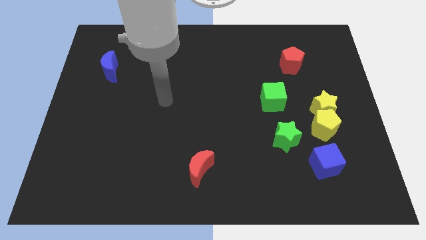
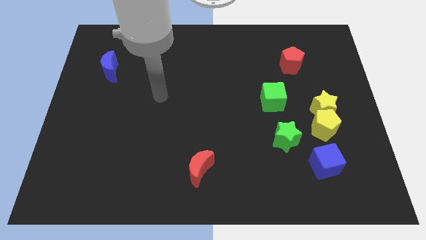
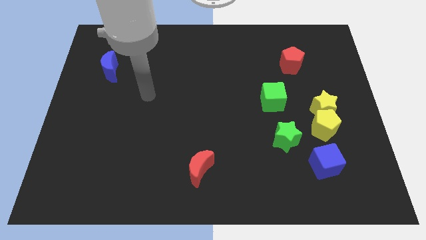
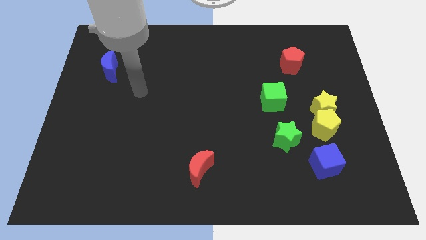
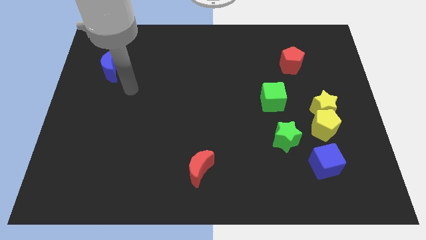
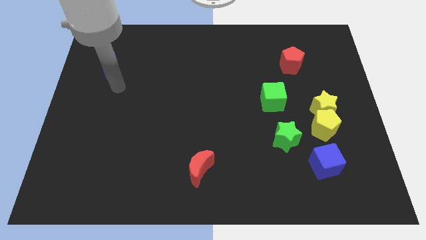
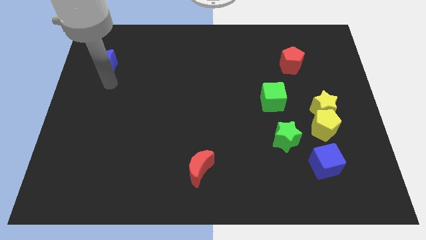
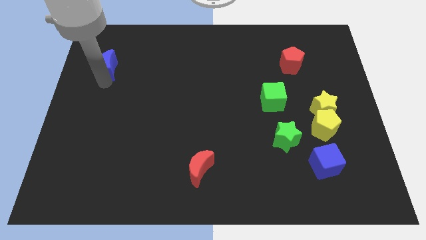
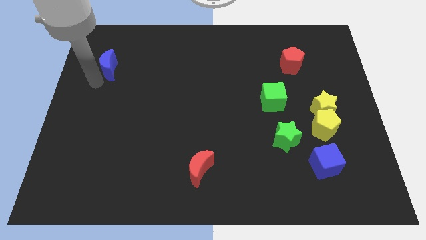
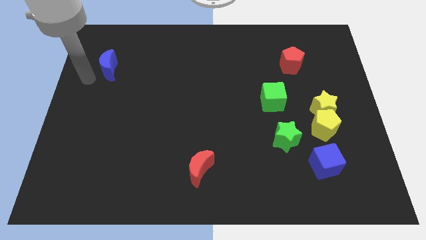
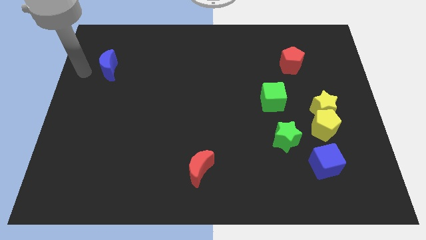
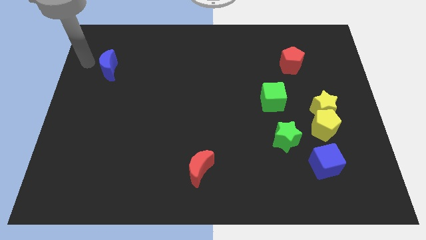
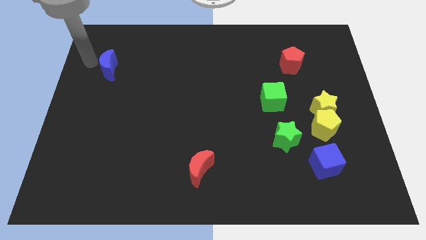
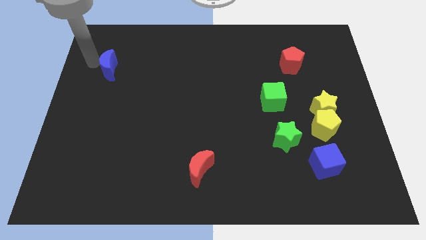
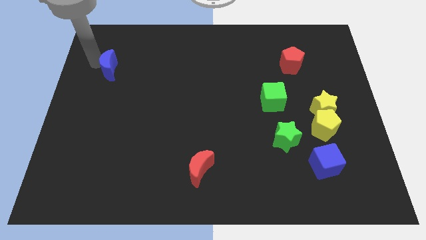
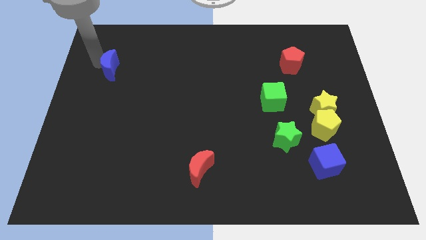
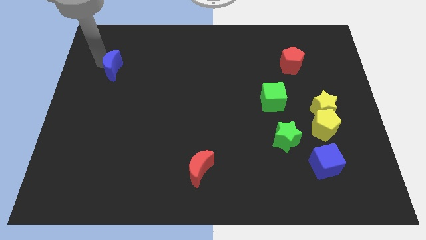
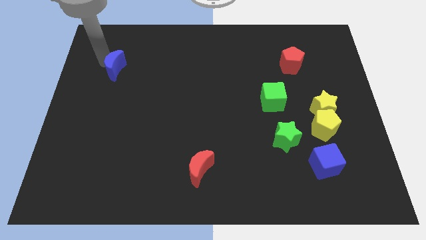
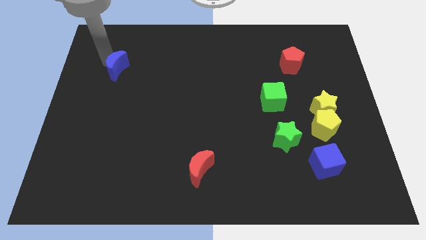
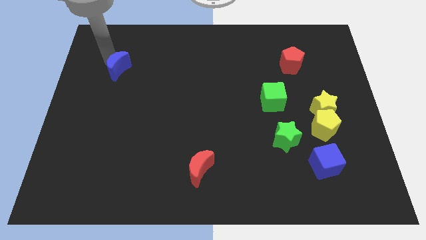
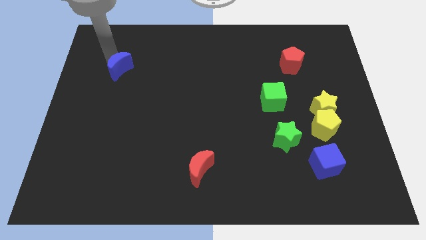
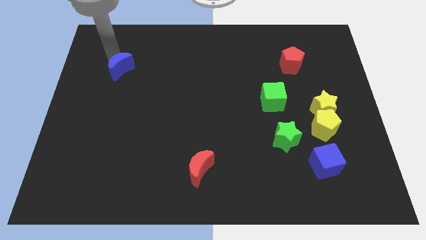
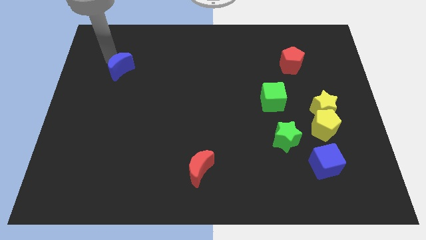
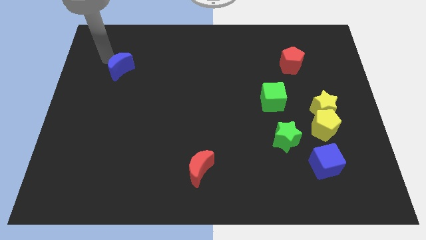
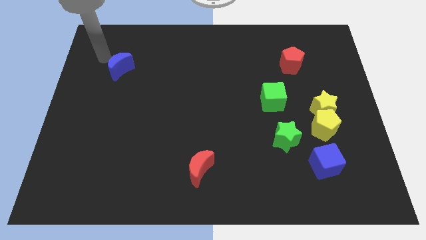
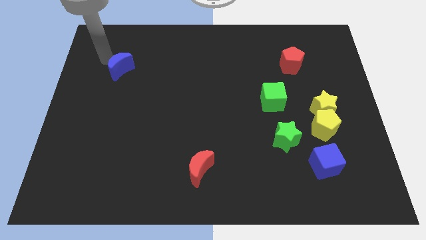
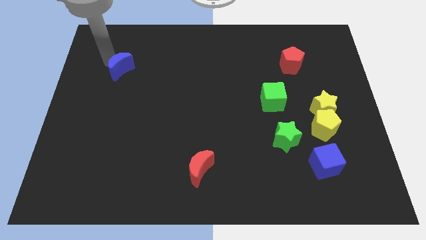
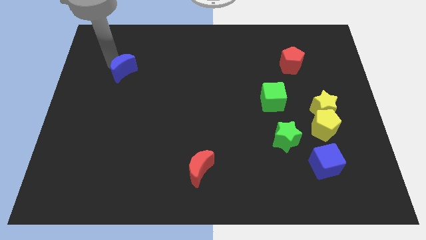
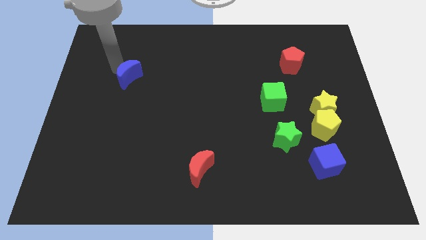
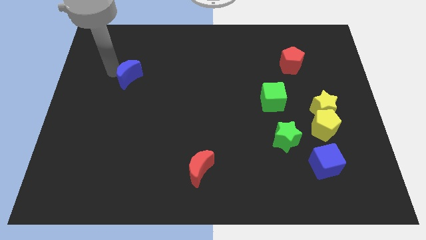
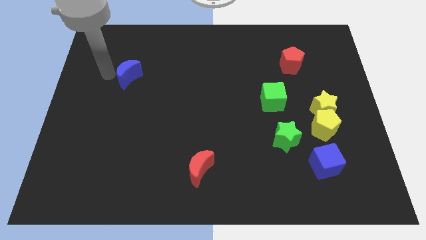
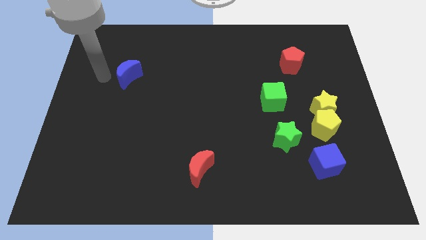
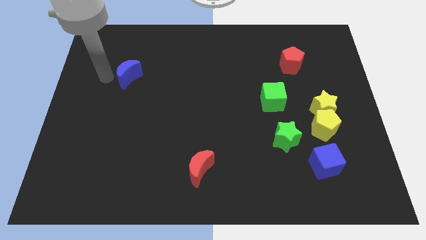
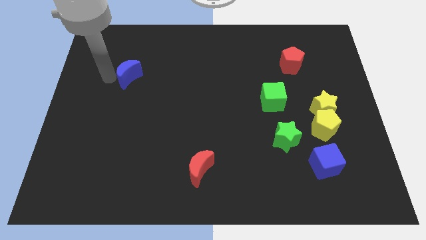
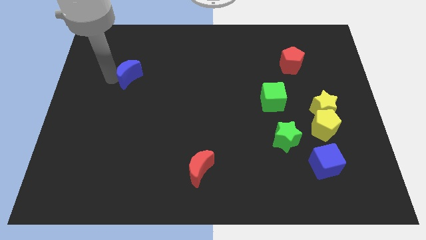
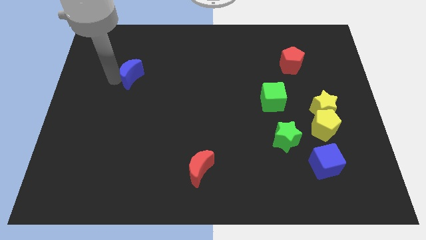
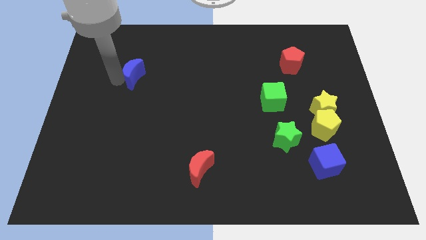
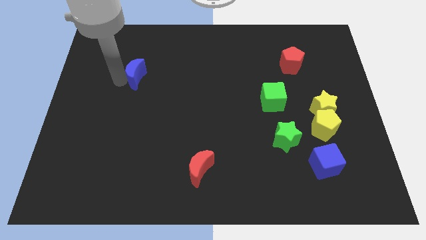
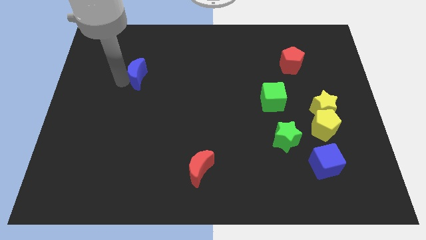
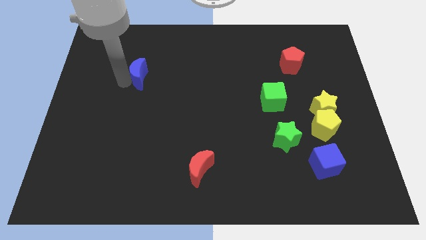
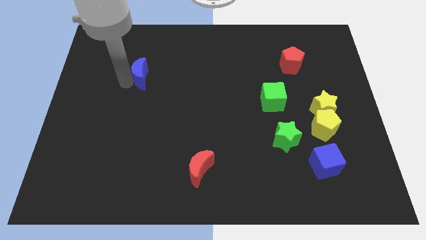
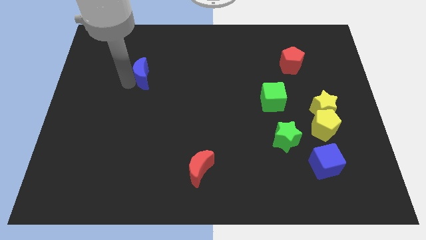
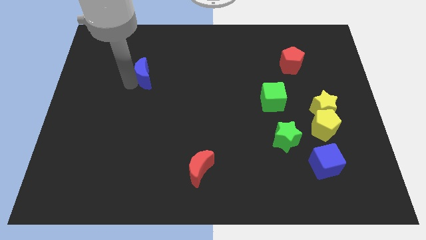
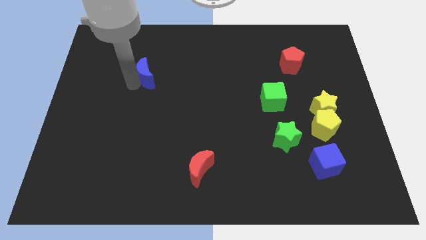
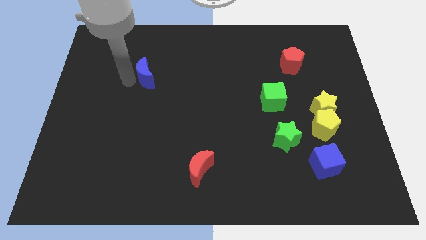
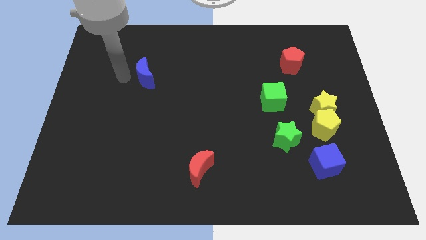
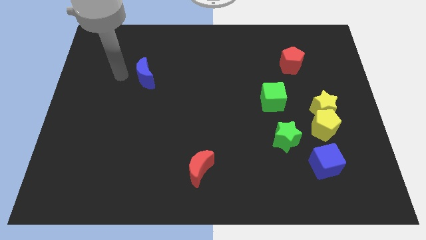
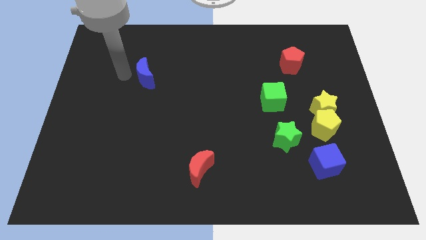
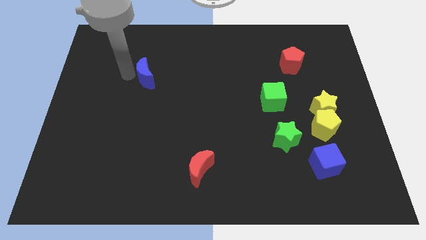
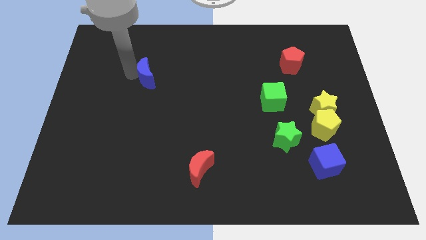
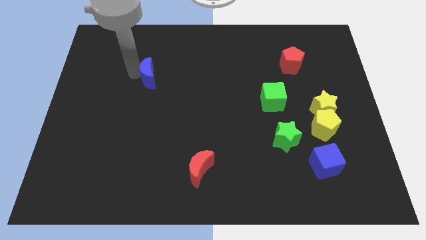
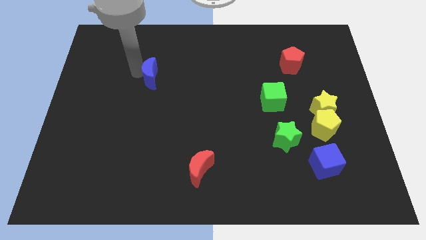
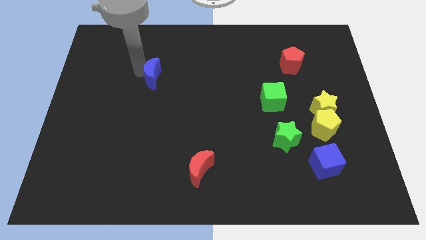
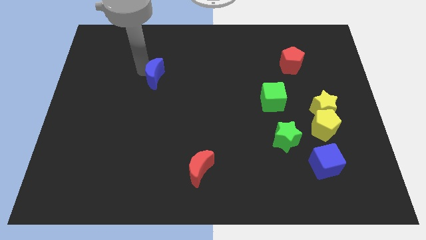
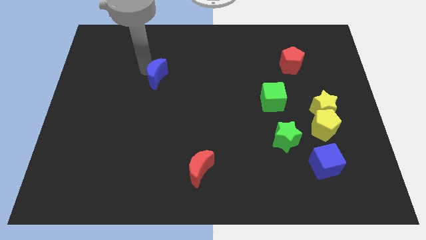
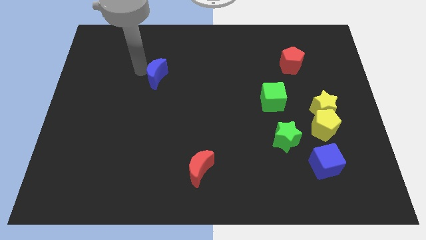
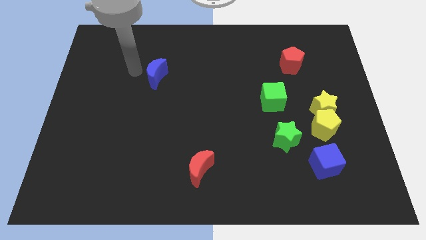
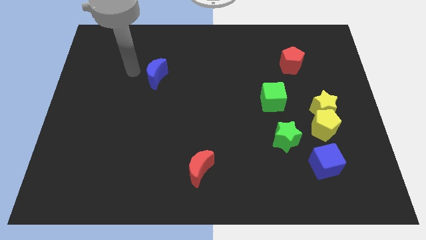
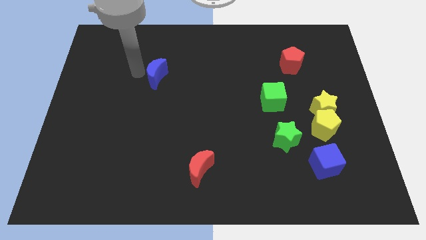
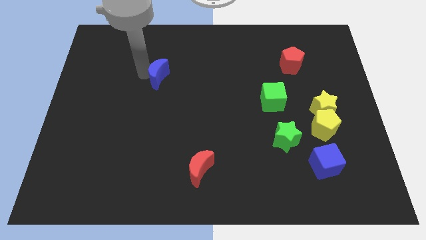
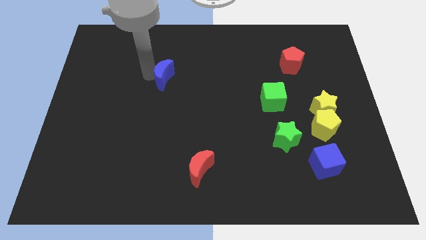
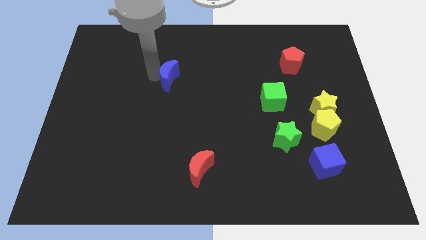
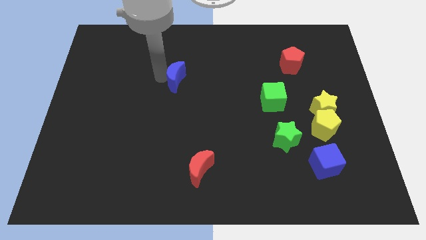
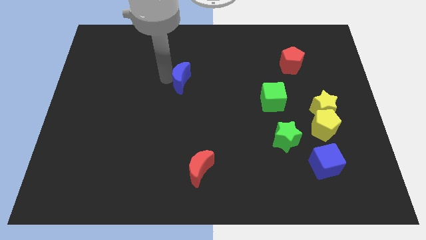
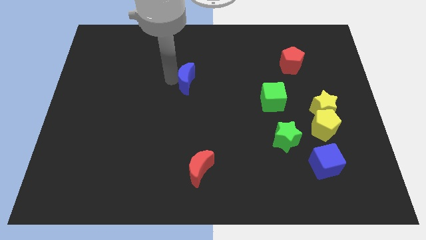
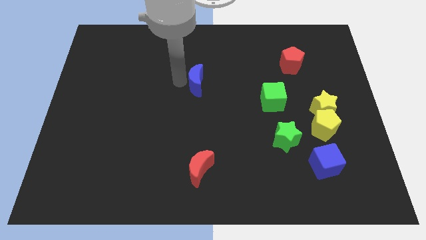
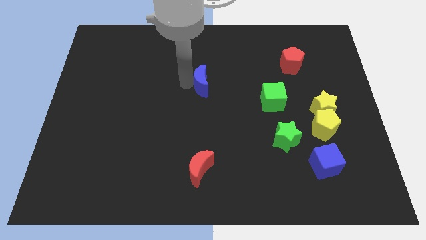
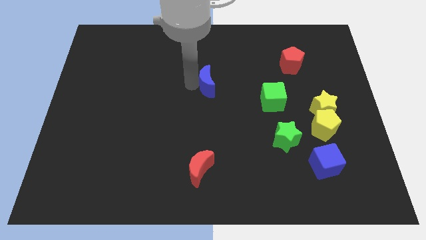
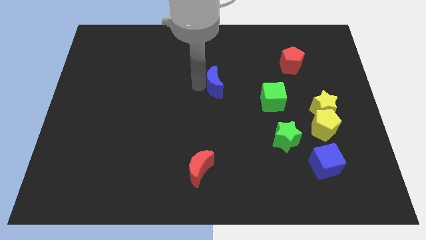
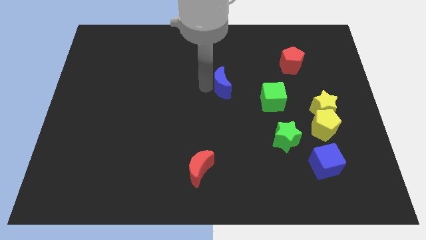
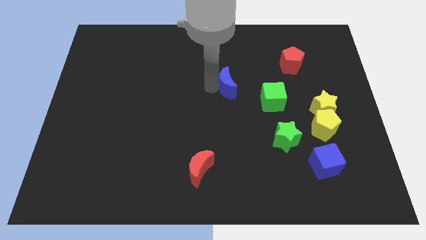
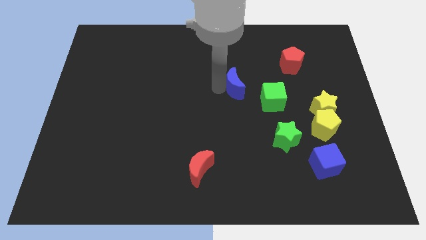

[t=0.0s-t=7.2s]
slide the blue moon diagonally up and to the left of the green cube
